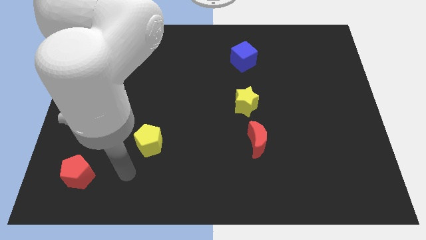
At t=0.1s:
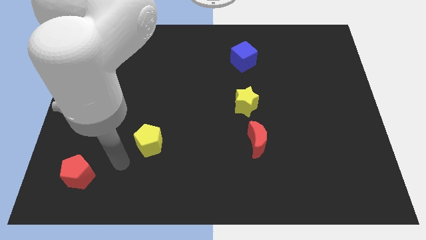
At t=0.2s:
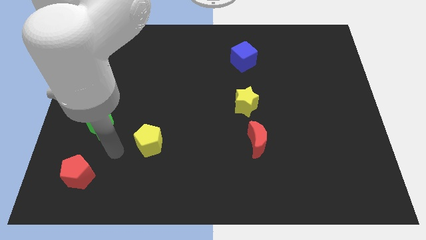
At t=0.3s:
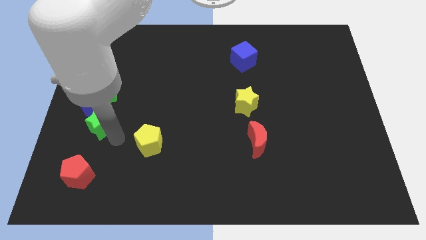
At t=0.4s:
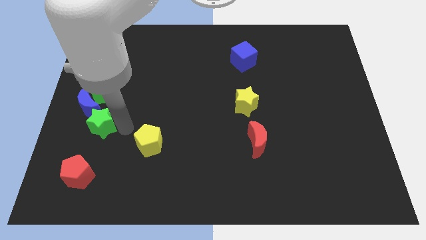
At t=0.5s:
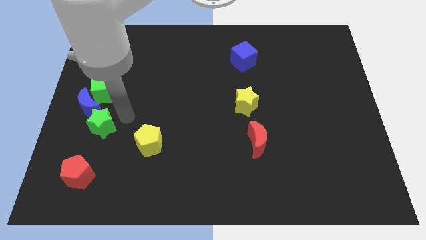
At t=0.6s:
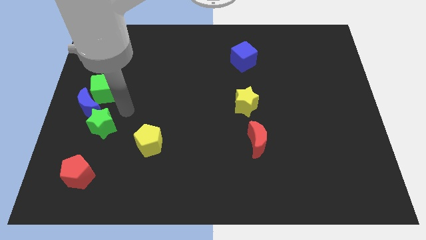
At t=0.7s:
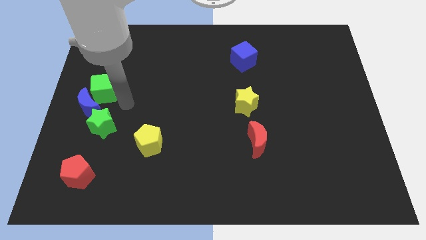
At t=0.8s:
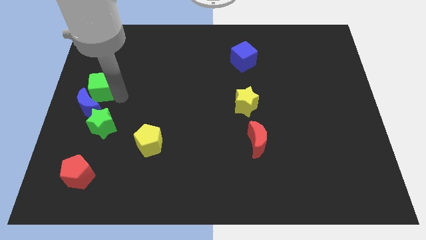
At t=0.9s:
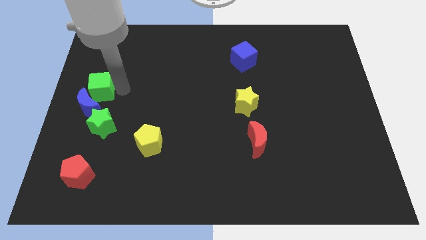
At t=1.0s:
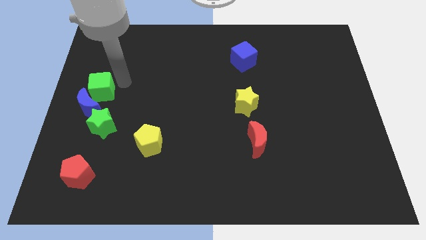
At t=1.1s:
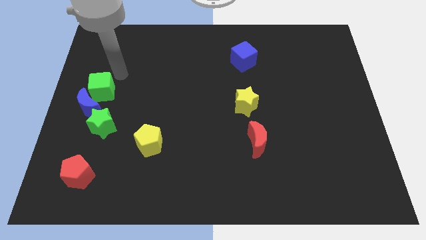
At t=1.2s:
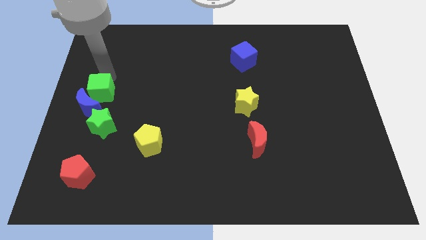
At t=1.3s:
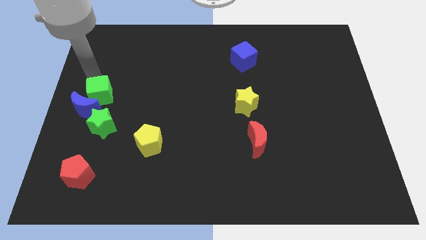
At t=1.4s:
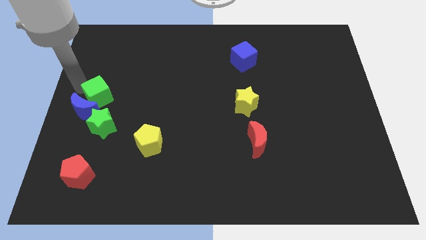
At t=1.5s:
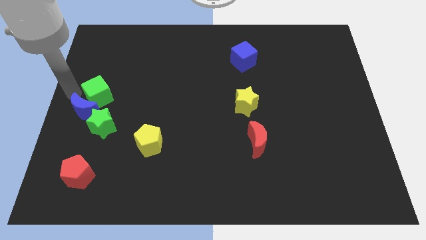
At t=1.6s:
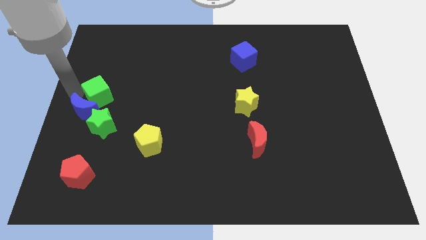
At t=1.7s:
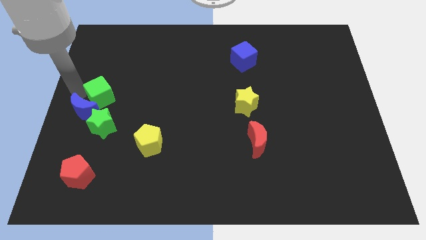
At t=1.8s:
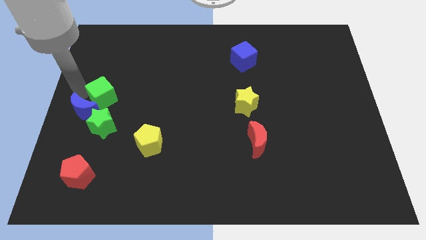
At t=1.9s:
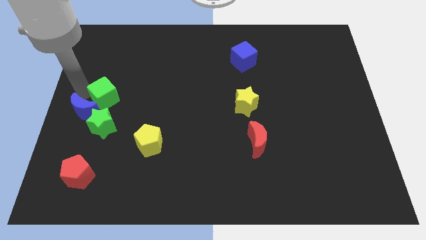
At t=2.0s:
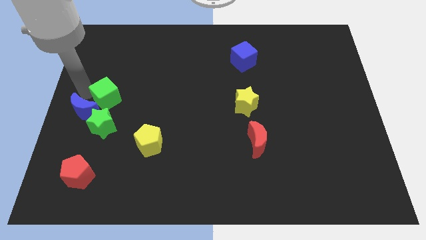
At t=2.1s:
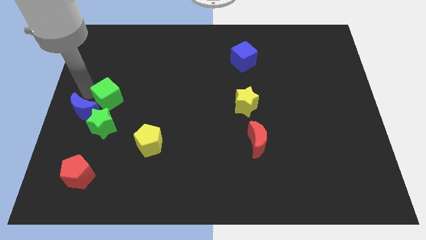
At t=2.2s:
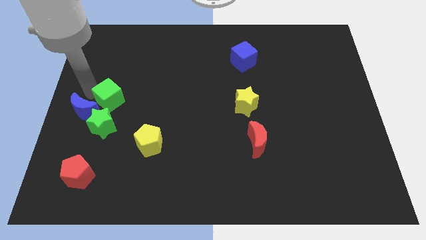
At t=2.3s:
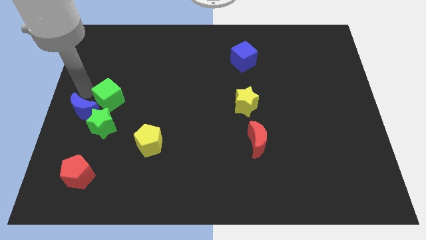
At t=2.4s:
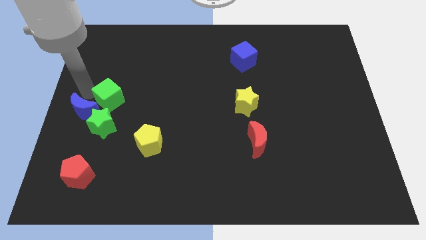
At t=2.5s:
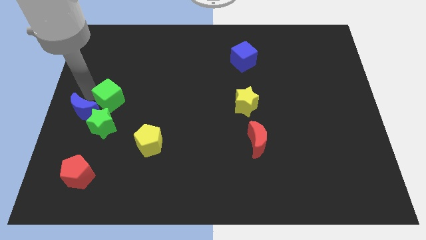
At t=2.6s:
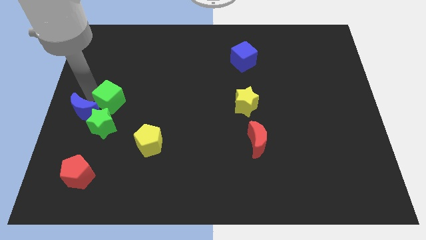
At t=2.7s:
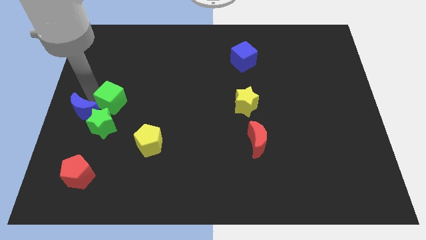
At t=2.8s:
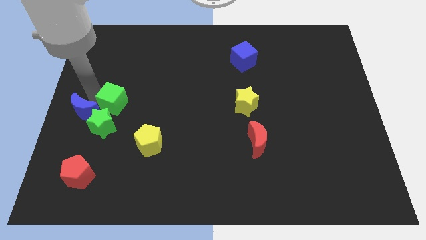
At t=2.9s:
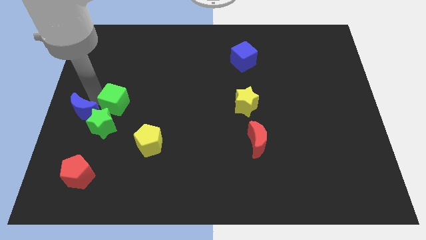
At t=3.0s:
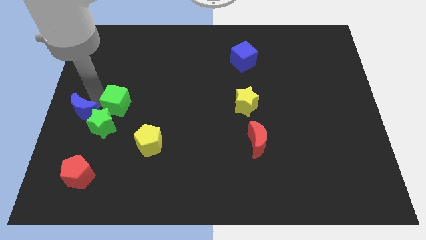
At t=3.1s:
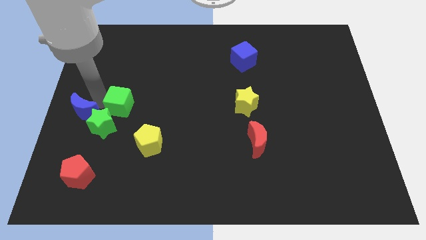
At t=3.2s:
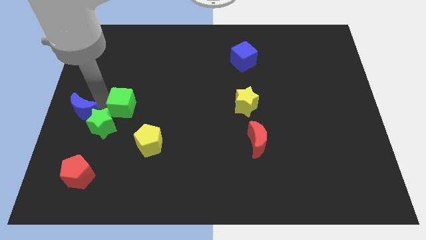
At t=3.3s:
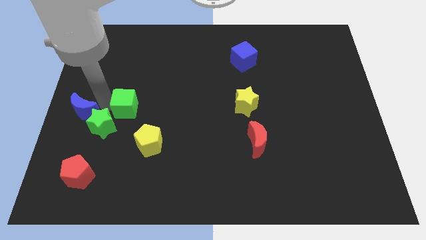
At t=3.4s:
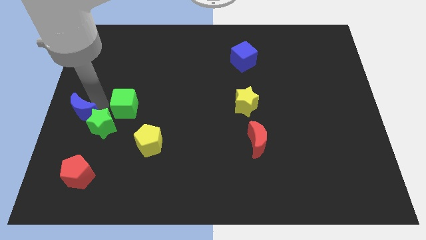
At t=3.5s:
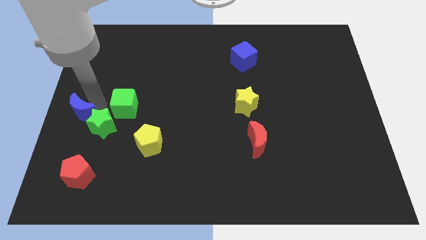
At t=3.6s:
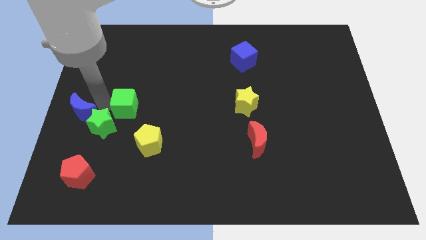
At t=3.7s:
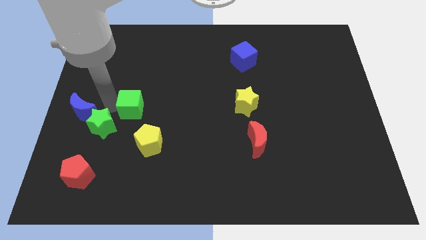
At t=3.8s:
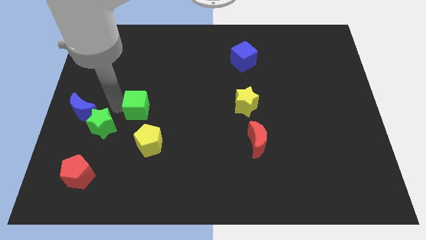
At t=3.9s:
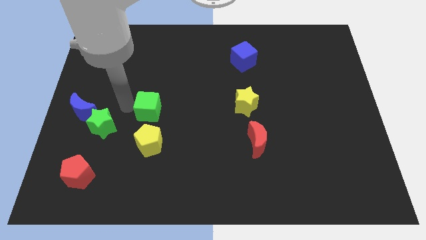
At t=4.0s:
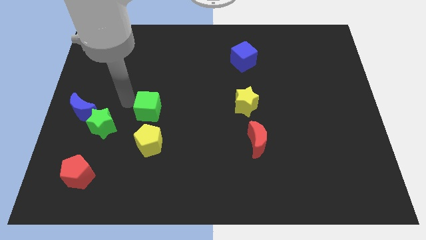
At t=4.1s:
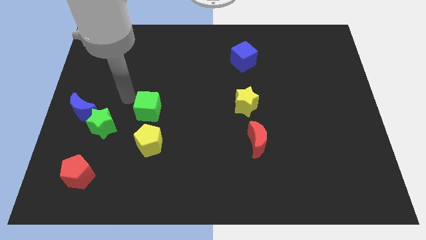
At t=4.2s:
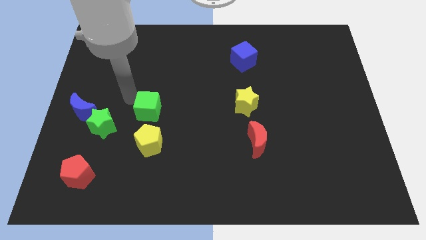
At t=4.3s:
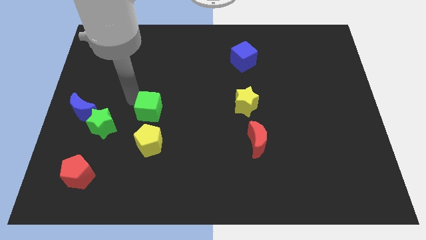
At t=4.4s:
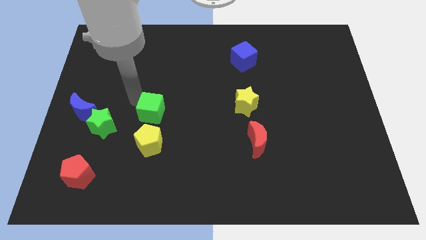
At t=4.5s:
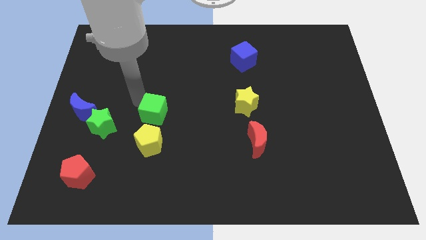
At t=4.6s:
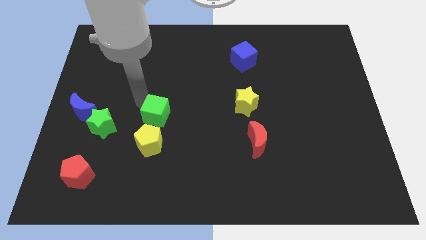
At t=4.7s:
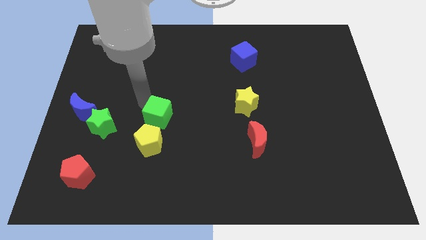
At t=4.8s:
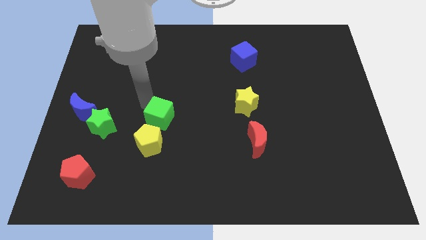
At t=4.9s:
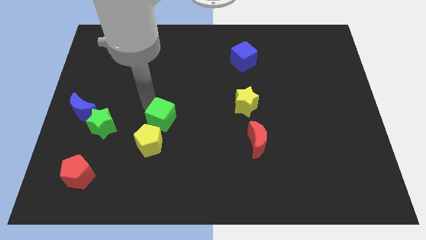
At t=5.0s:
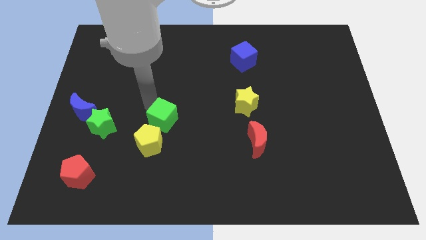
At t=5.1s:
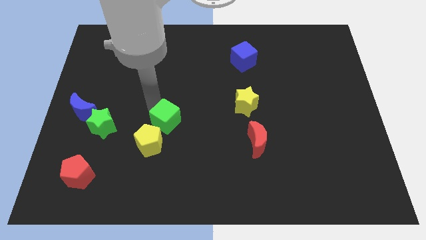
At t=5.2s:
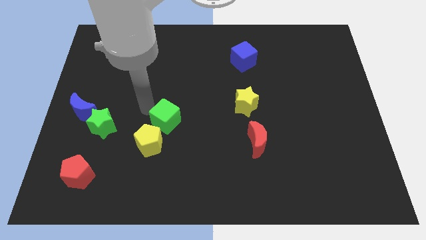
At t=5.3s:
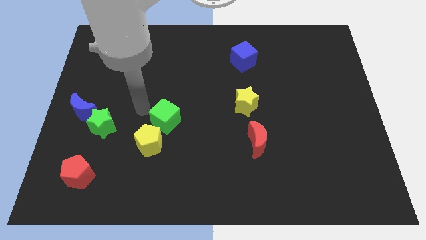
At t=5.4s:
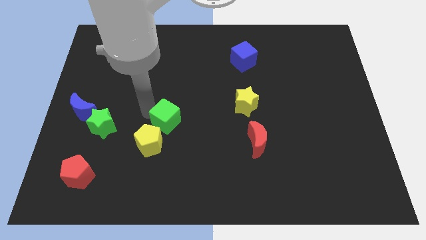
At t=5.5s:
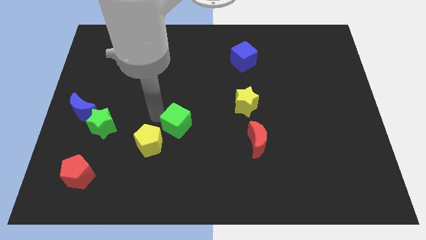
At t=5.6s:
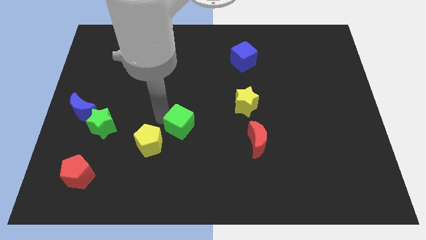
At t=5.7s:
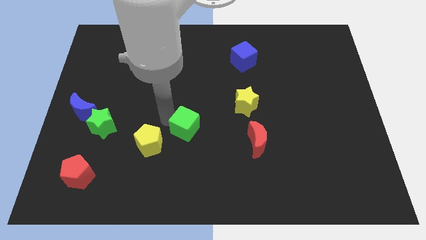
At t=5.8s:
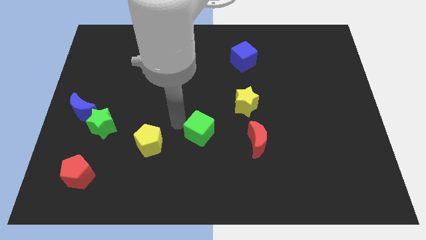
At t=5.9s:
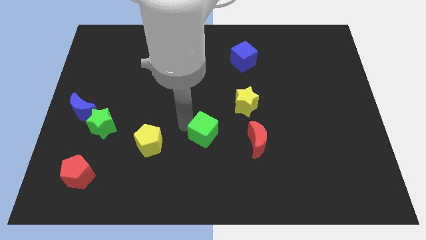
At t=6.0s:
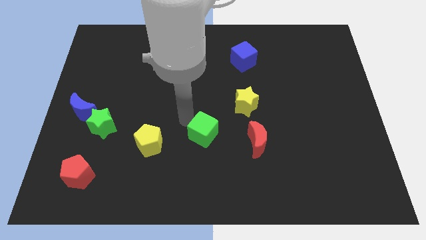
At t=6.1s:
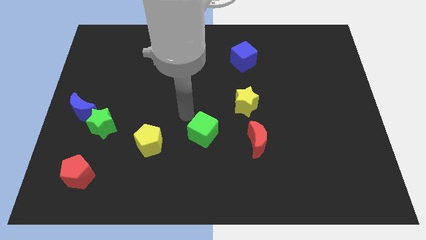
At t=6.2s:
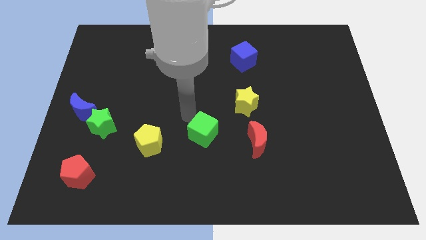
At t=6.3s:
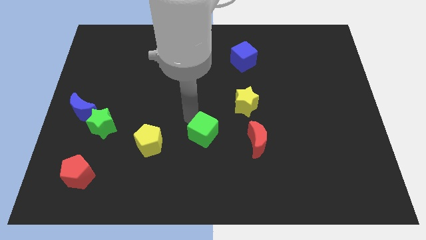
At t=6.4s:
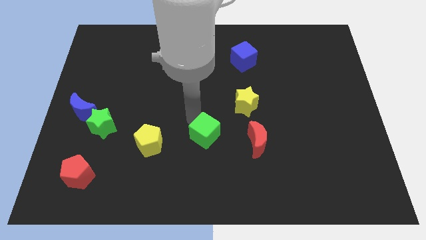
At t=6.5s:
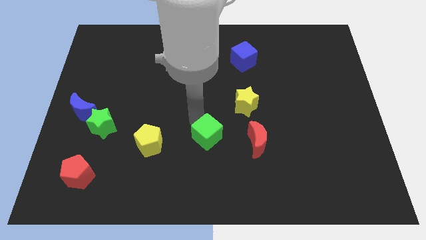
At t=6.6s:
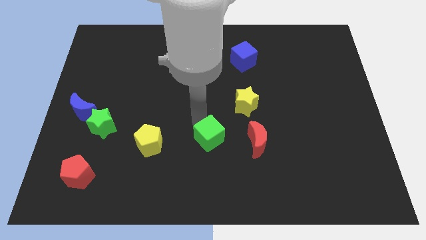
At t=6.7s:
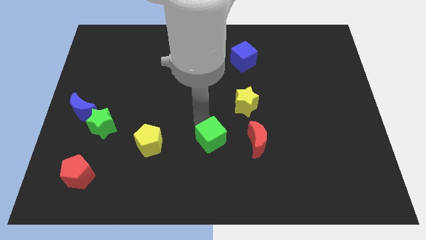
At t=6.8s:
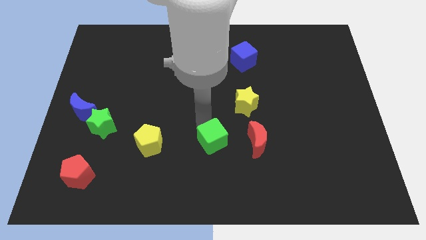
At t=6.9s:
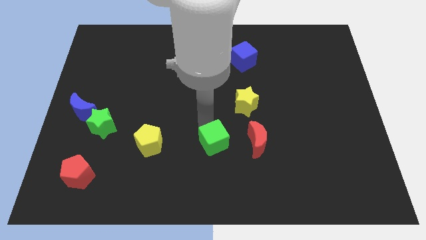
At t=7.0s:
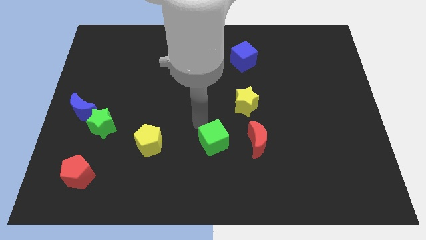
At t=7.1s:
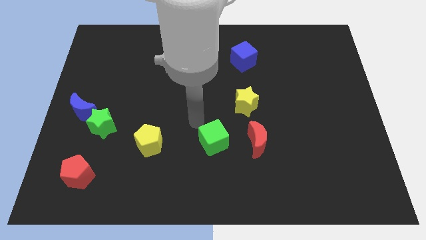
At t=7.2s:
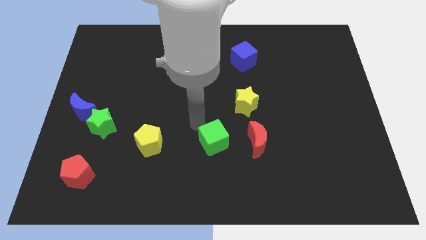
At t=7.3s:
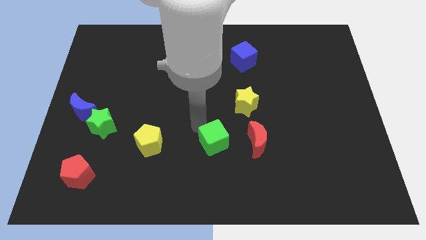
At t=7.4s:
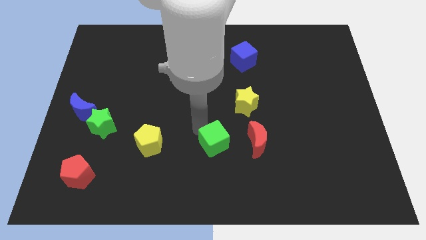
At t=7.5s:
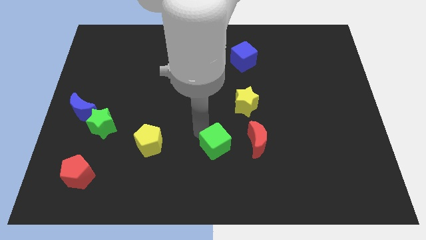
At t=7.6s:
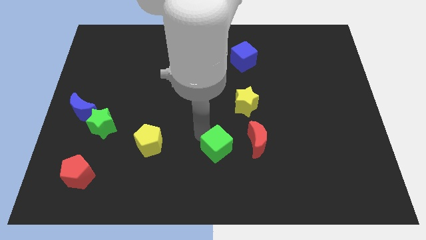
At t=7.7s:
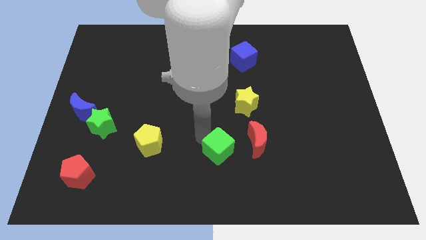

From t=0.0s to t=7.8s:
push the green cube to the bottom left of the red moon
